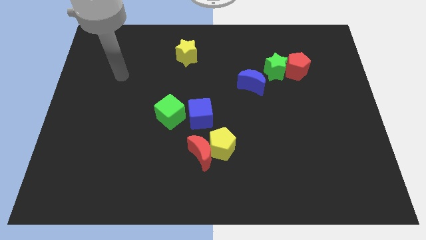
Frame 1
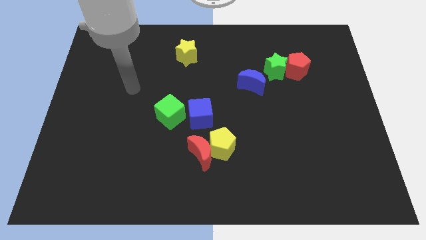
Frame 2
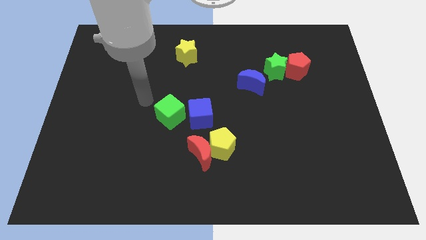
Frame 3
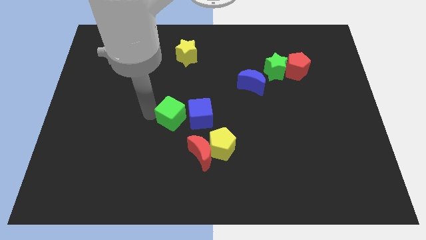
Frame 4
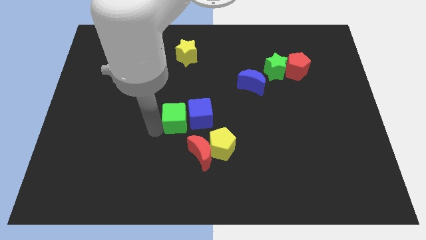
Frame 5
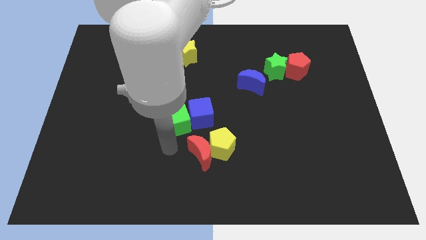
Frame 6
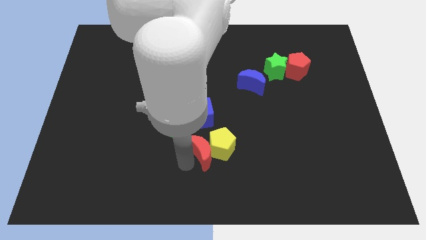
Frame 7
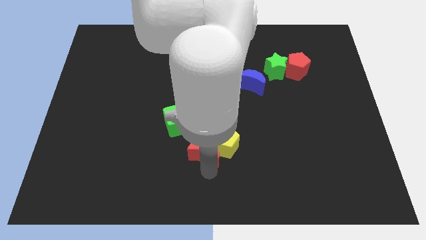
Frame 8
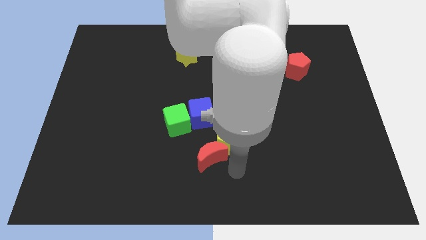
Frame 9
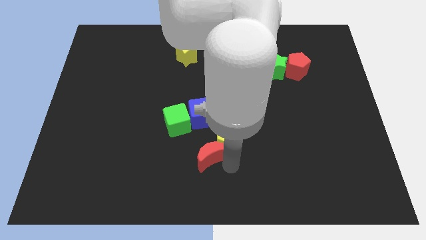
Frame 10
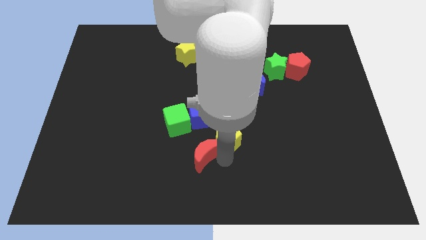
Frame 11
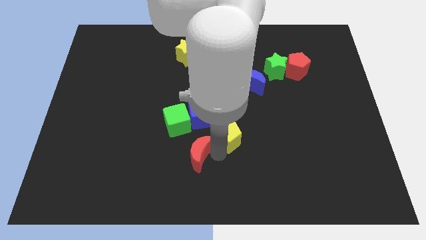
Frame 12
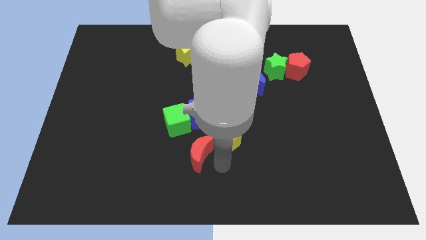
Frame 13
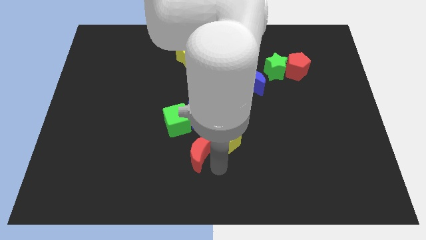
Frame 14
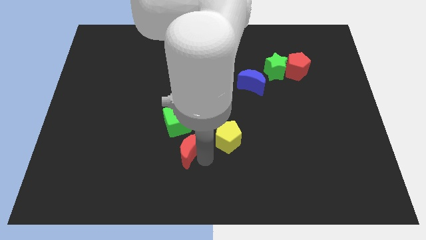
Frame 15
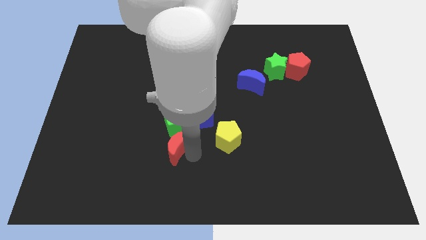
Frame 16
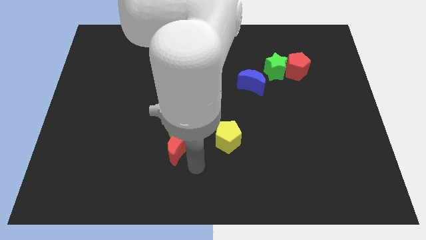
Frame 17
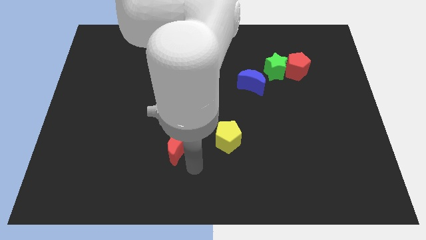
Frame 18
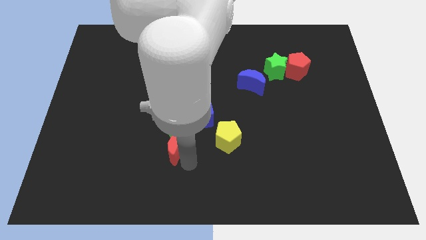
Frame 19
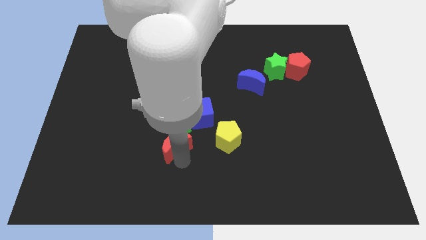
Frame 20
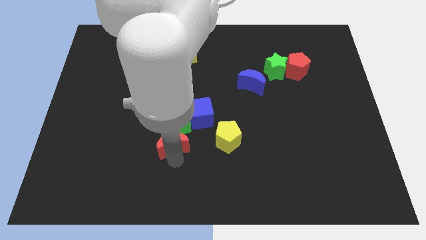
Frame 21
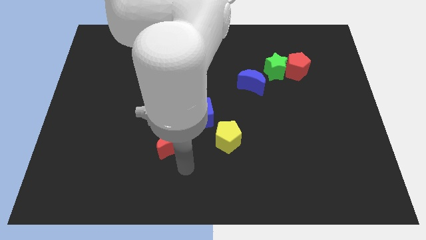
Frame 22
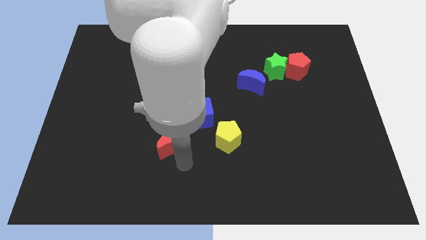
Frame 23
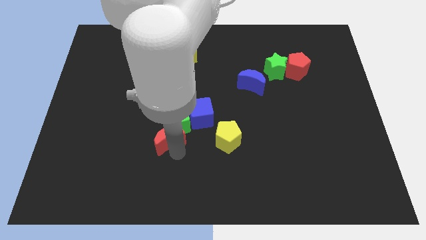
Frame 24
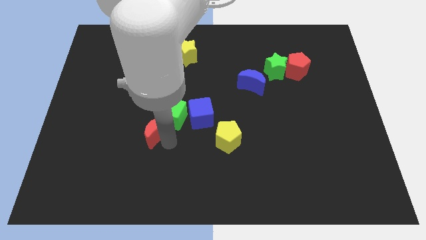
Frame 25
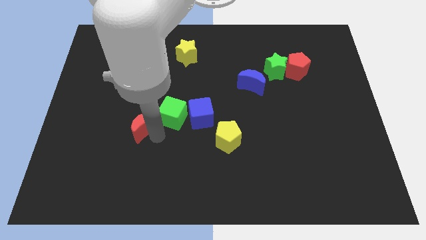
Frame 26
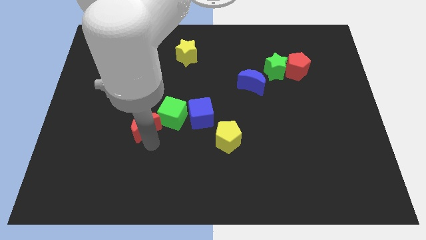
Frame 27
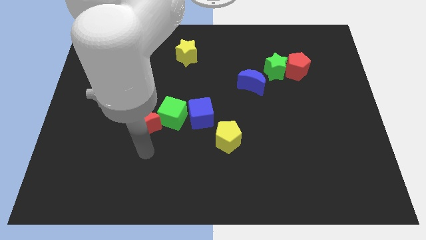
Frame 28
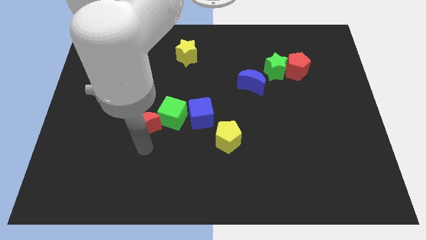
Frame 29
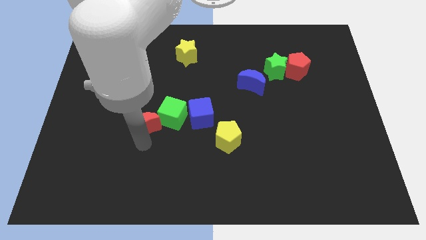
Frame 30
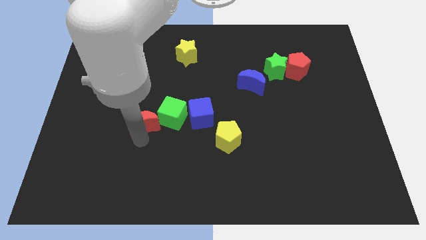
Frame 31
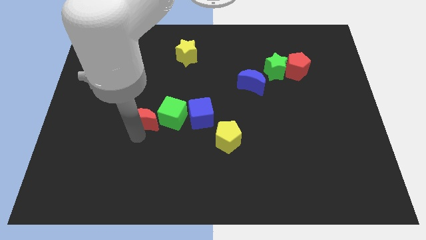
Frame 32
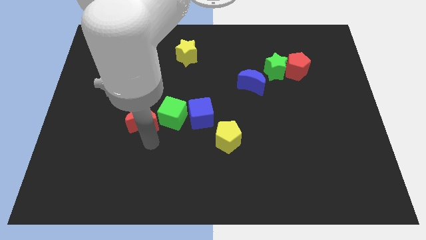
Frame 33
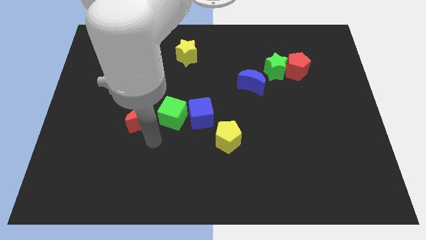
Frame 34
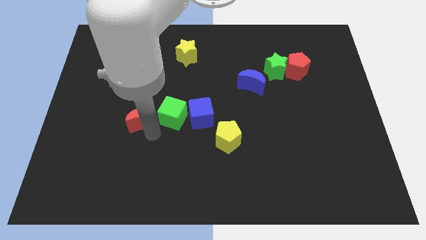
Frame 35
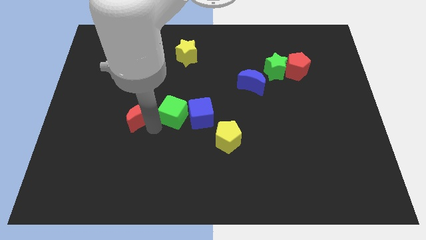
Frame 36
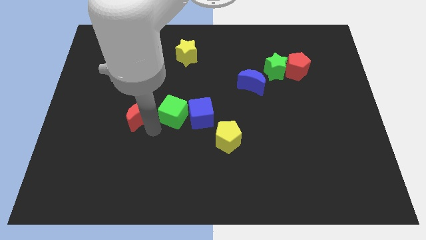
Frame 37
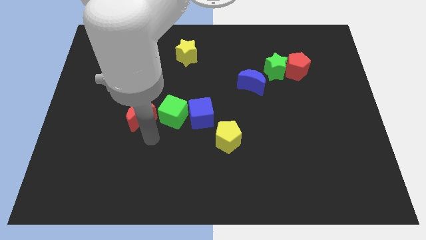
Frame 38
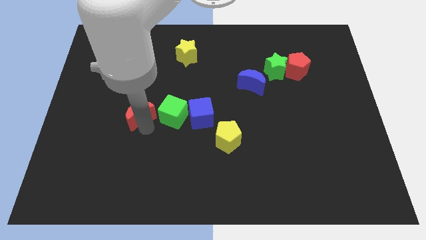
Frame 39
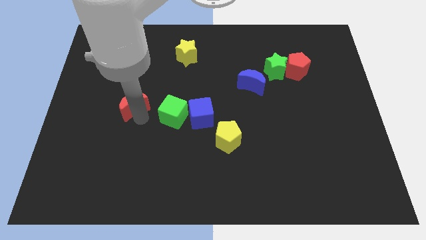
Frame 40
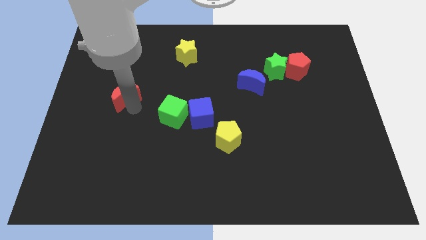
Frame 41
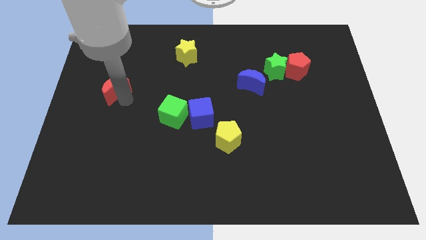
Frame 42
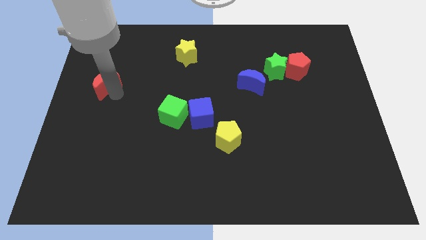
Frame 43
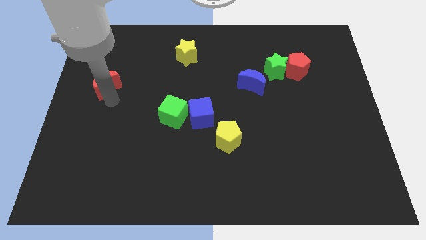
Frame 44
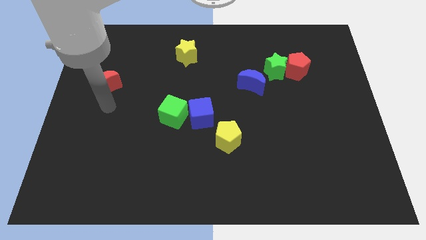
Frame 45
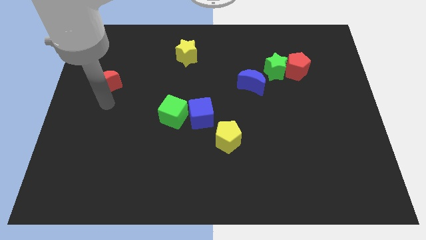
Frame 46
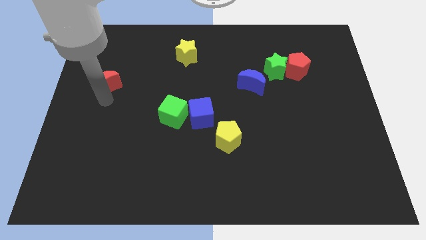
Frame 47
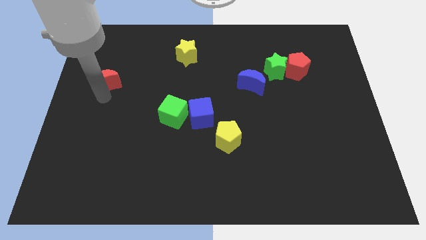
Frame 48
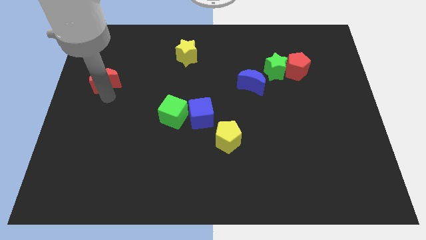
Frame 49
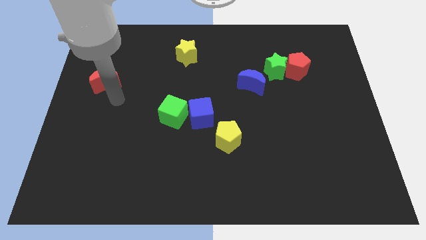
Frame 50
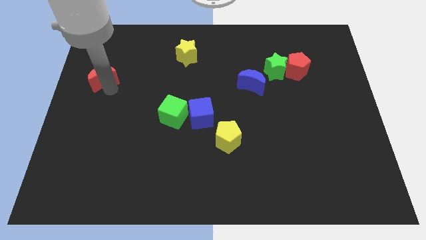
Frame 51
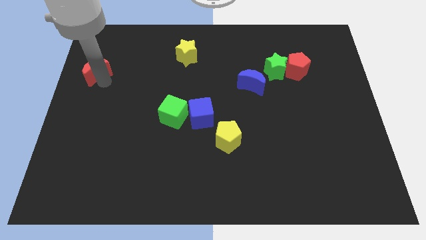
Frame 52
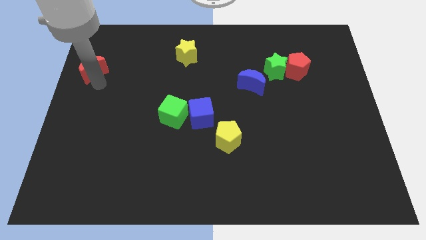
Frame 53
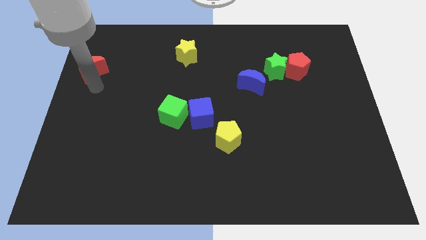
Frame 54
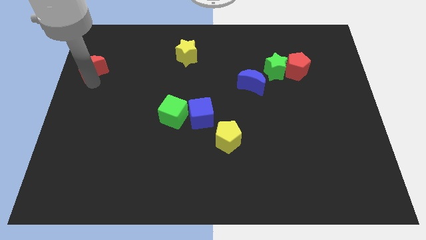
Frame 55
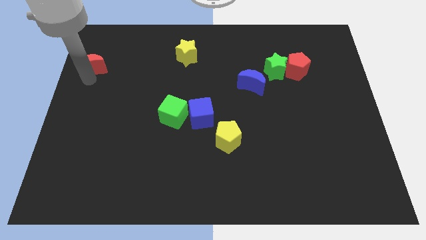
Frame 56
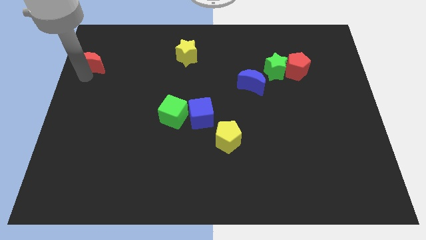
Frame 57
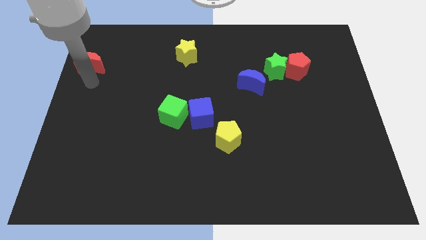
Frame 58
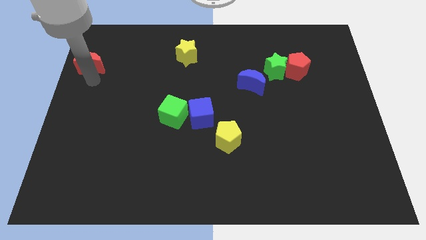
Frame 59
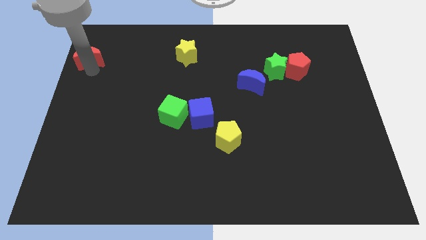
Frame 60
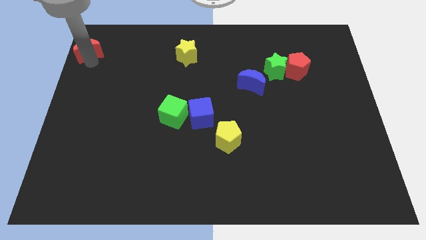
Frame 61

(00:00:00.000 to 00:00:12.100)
slide the red moon to the top left of the board

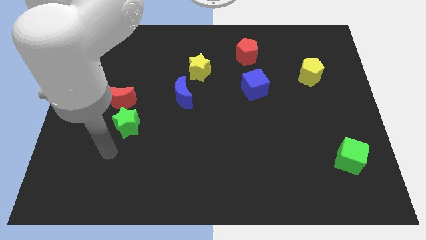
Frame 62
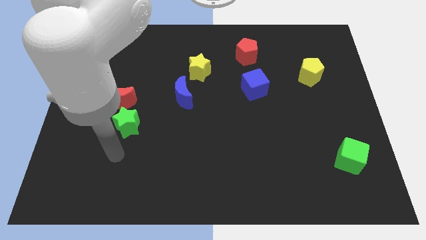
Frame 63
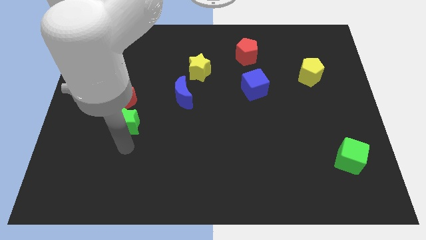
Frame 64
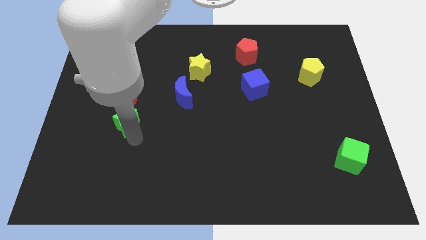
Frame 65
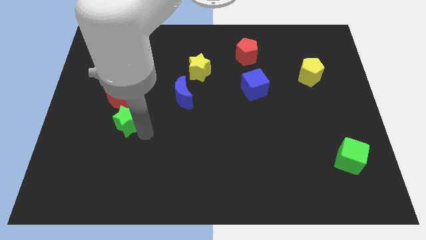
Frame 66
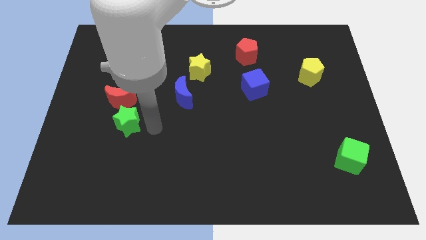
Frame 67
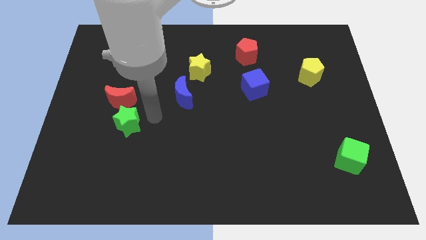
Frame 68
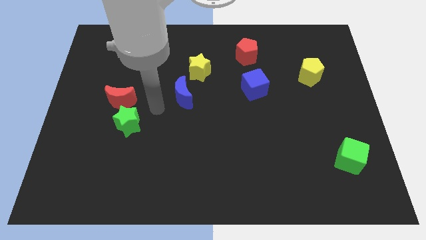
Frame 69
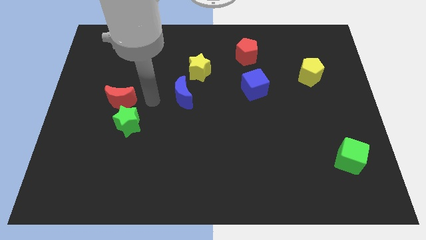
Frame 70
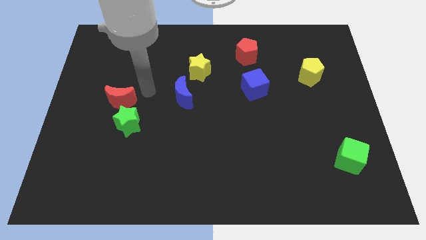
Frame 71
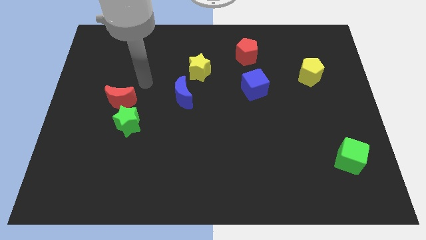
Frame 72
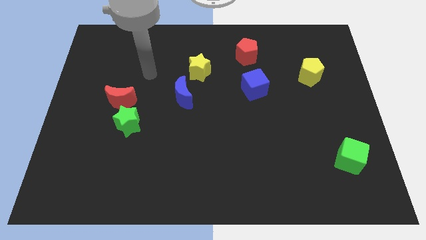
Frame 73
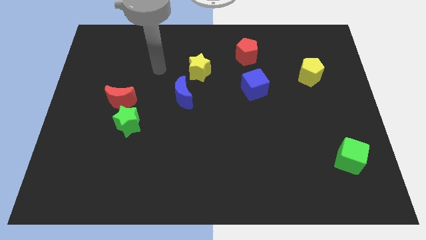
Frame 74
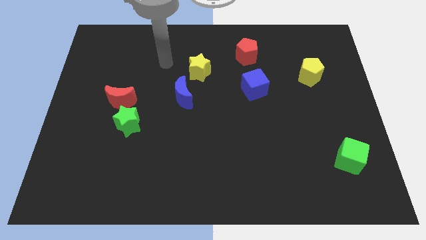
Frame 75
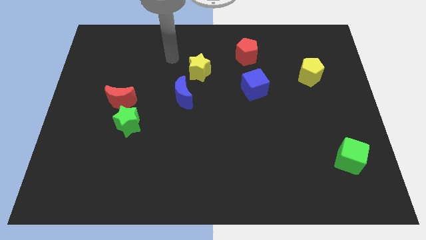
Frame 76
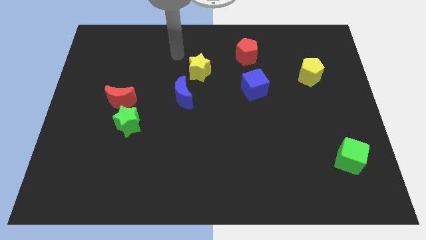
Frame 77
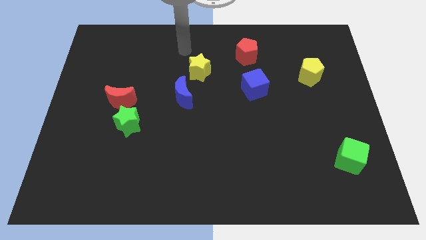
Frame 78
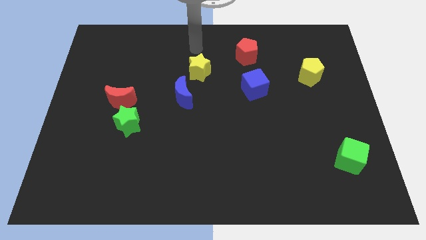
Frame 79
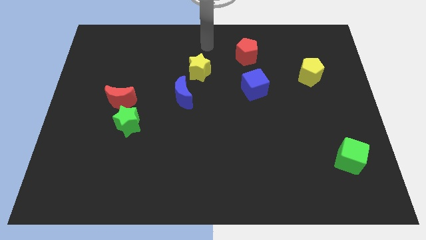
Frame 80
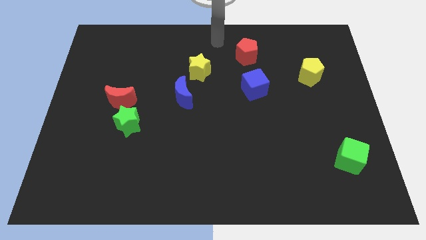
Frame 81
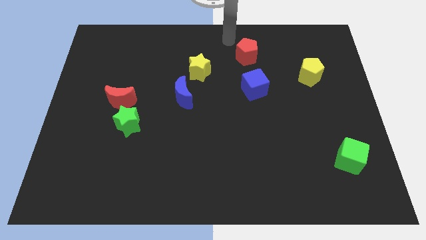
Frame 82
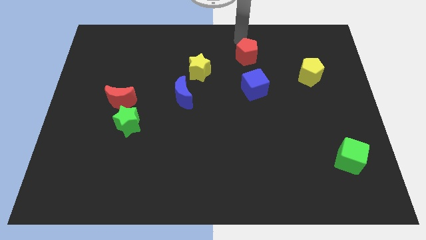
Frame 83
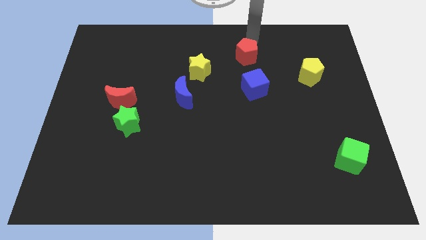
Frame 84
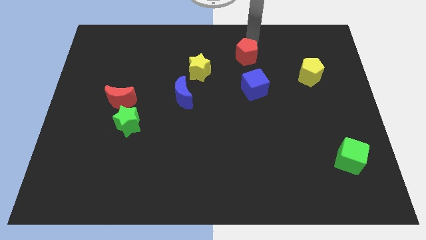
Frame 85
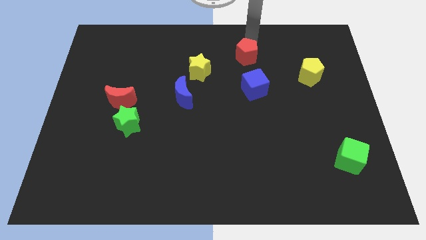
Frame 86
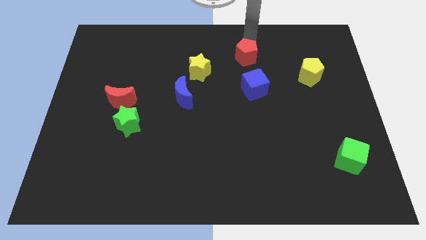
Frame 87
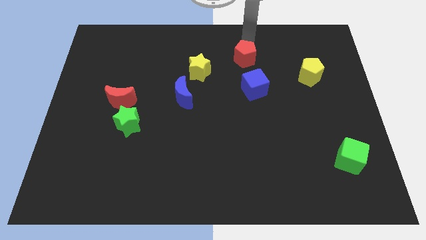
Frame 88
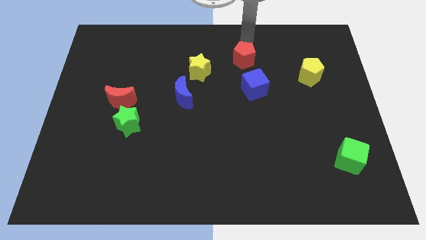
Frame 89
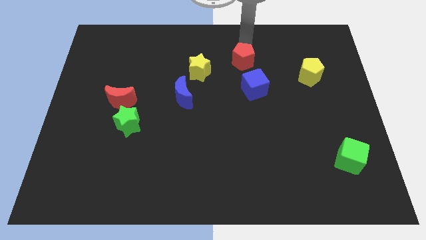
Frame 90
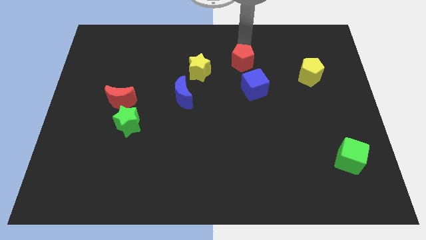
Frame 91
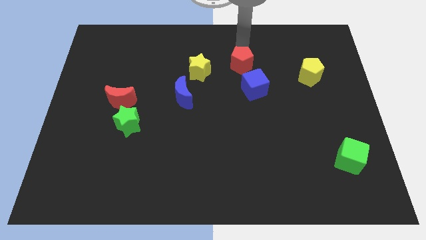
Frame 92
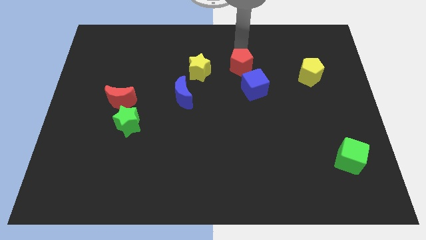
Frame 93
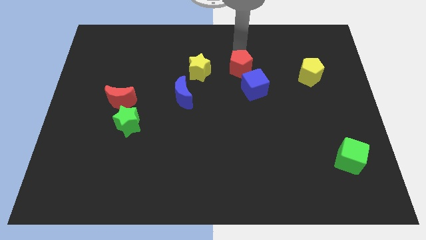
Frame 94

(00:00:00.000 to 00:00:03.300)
slide the red pentagon to the middle
